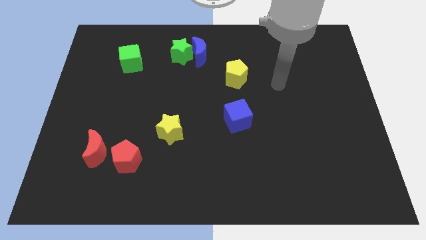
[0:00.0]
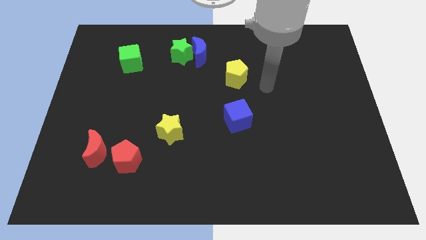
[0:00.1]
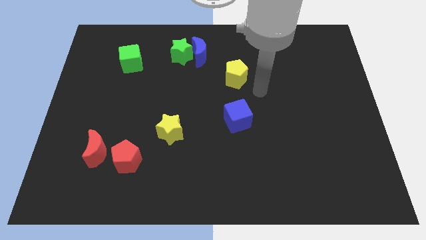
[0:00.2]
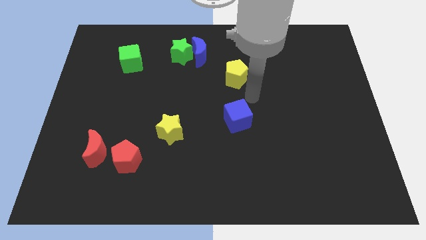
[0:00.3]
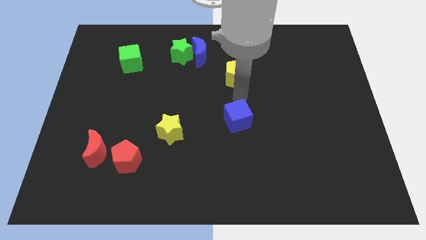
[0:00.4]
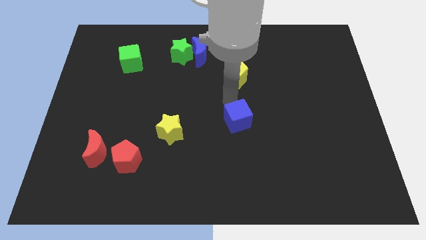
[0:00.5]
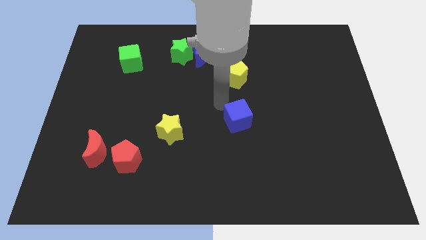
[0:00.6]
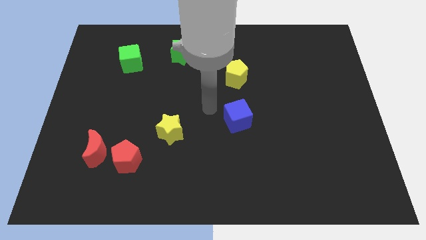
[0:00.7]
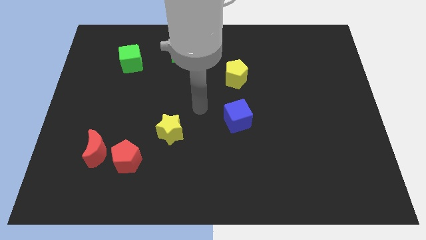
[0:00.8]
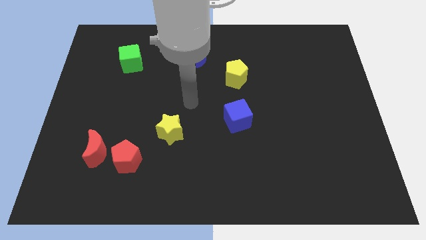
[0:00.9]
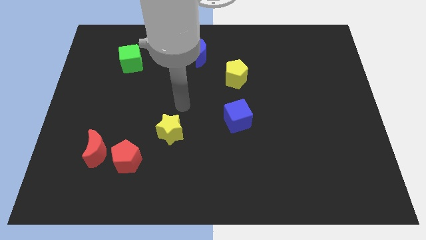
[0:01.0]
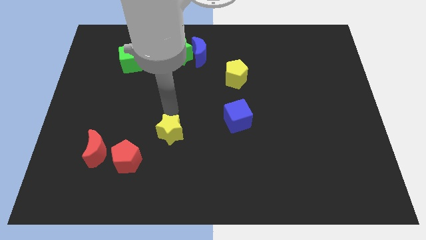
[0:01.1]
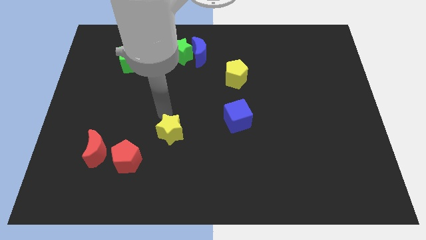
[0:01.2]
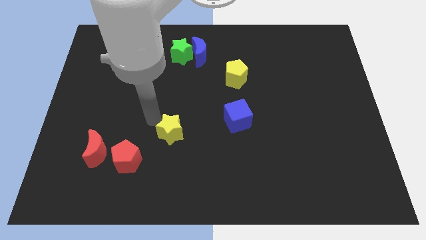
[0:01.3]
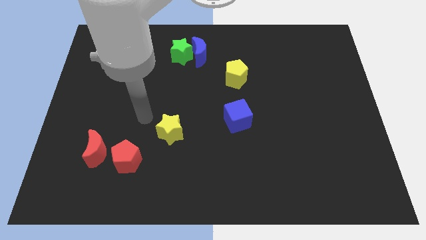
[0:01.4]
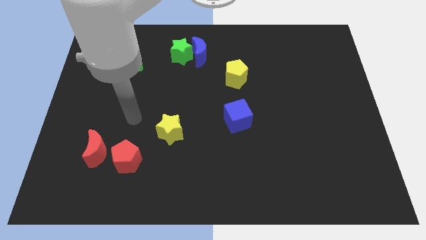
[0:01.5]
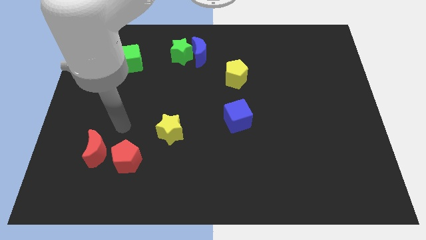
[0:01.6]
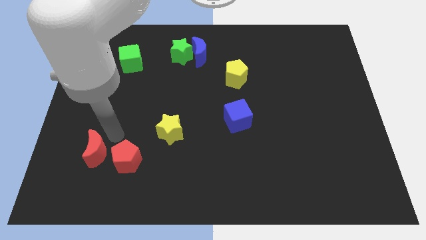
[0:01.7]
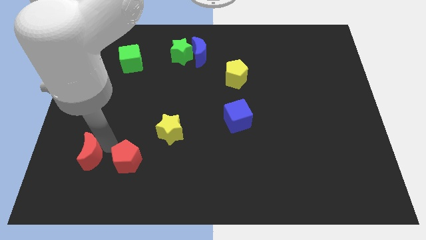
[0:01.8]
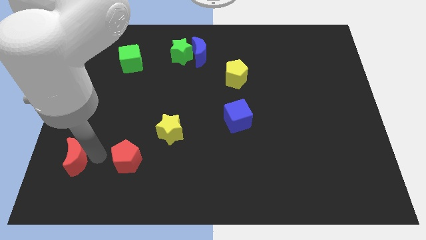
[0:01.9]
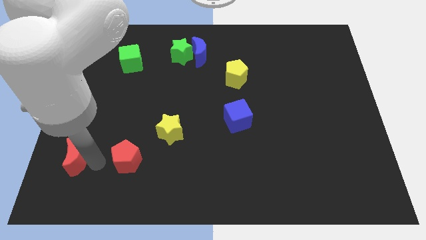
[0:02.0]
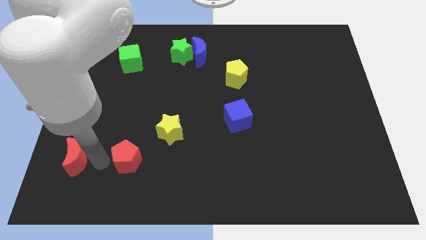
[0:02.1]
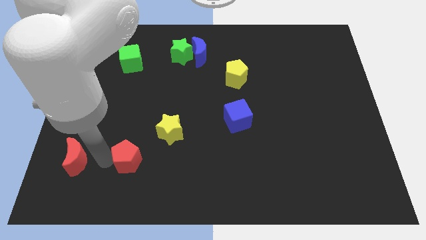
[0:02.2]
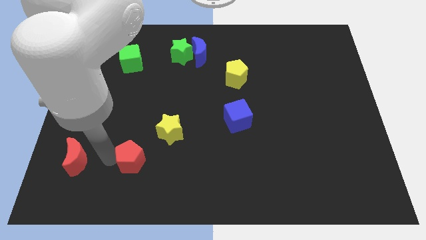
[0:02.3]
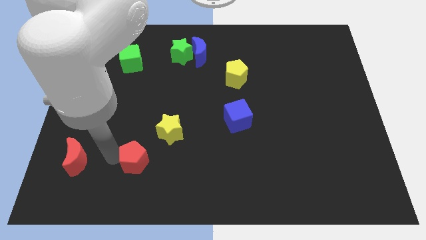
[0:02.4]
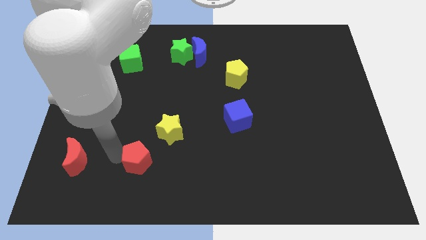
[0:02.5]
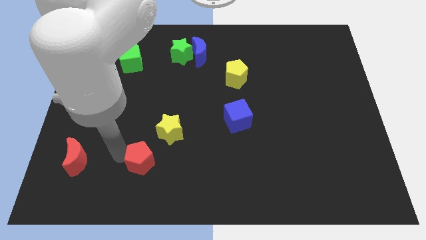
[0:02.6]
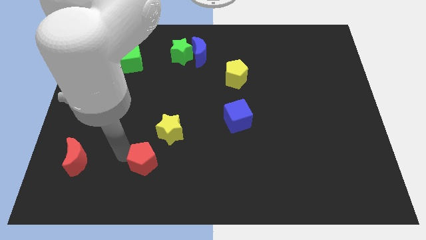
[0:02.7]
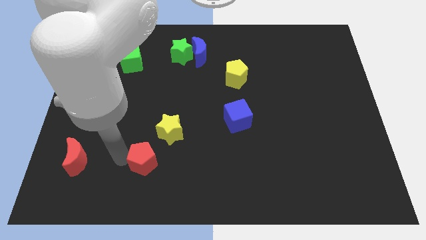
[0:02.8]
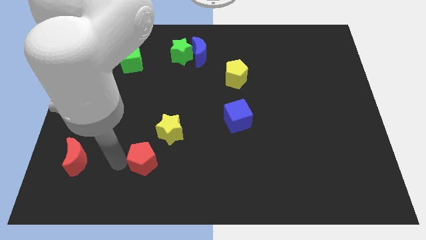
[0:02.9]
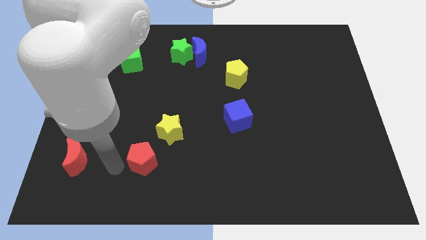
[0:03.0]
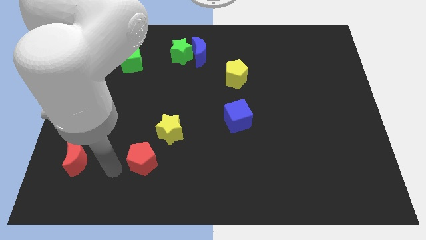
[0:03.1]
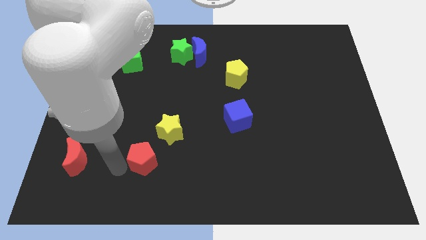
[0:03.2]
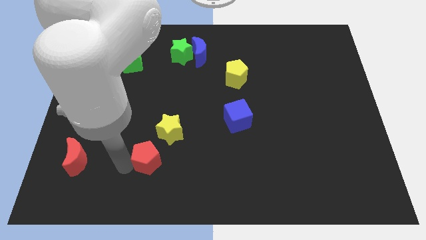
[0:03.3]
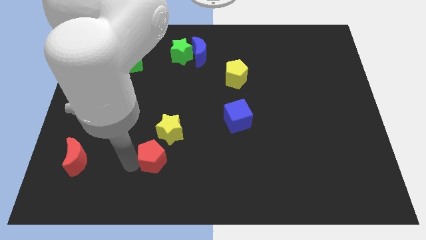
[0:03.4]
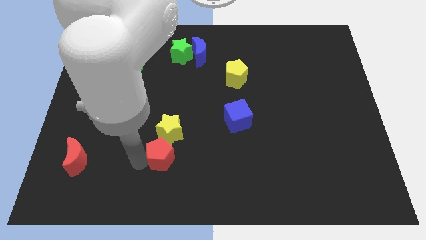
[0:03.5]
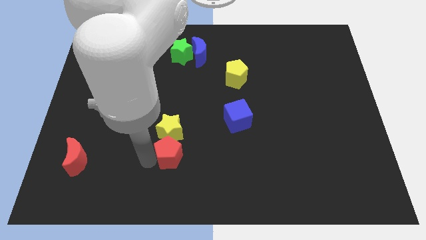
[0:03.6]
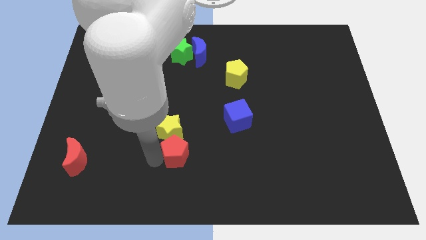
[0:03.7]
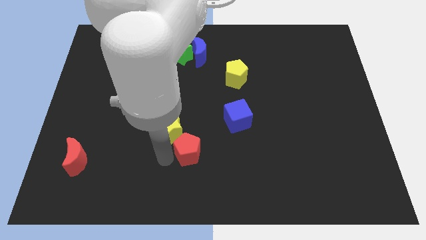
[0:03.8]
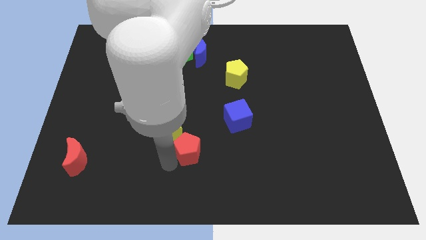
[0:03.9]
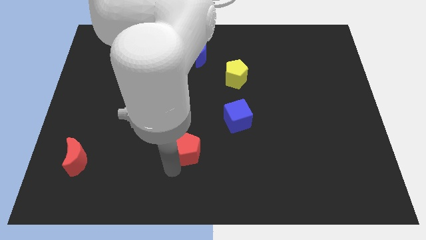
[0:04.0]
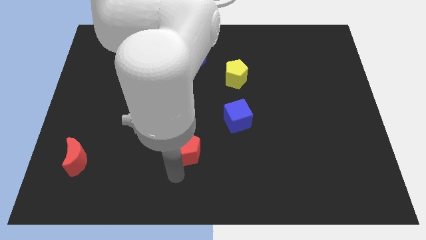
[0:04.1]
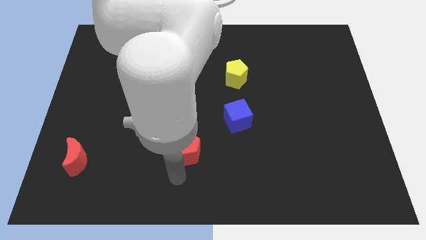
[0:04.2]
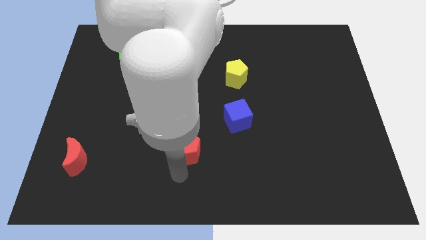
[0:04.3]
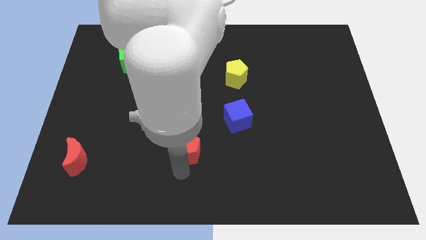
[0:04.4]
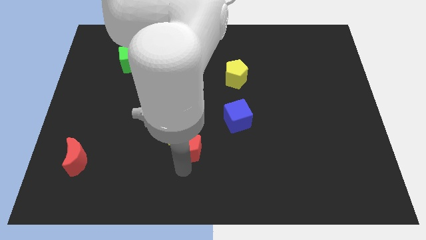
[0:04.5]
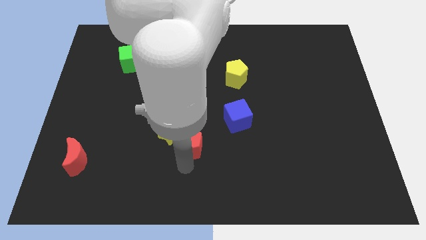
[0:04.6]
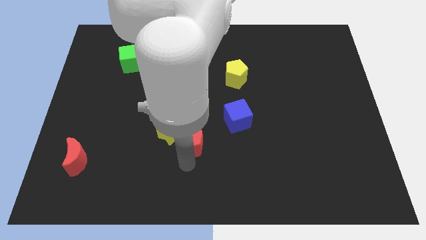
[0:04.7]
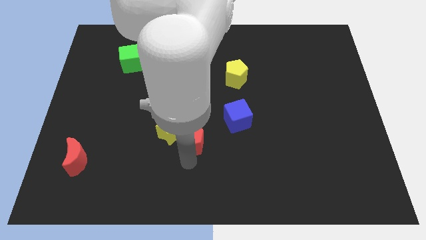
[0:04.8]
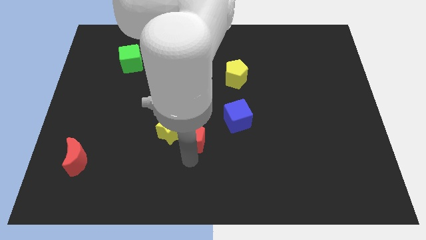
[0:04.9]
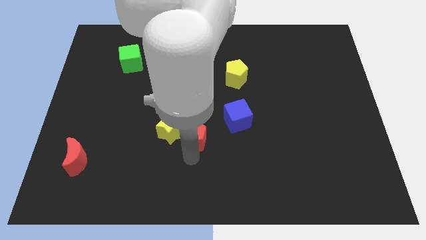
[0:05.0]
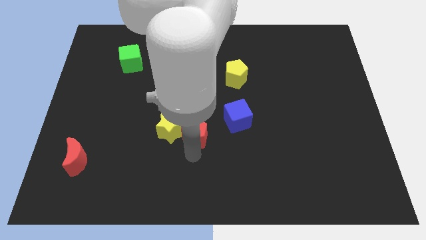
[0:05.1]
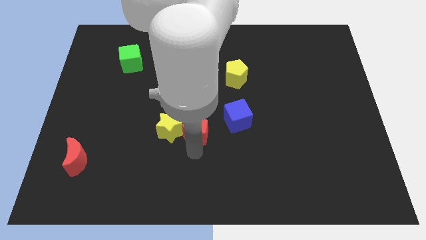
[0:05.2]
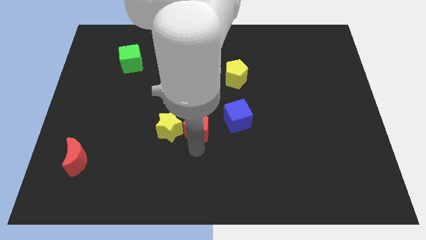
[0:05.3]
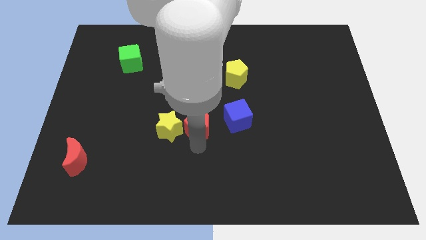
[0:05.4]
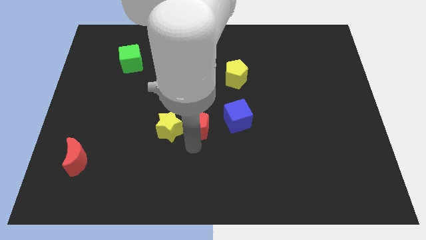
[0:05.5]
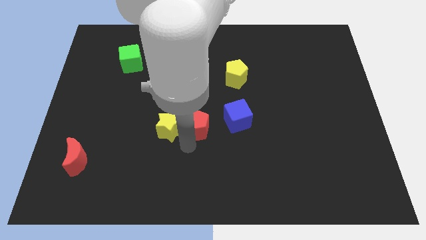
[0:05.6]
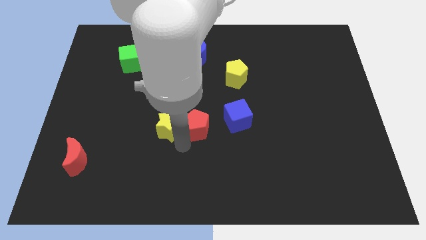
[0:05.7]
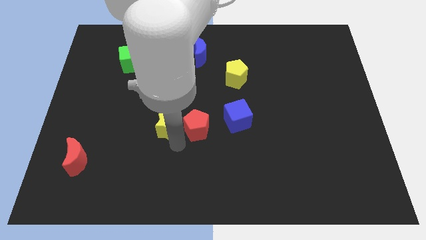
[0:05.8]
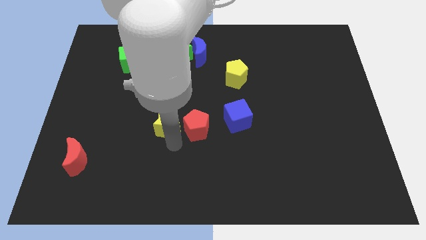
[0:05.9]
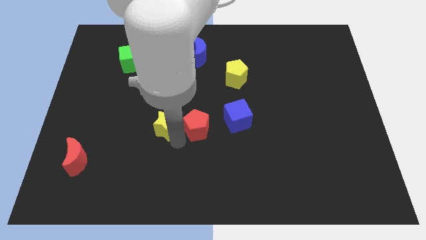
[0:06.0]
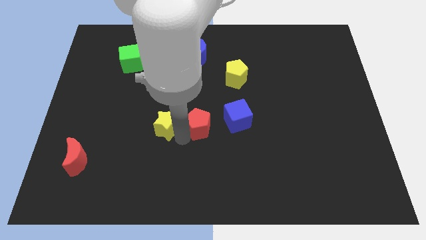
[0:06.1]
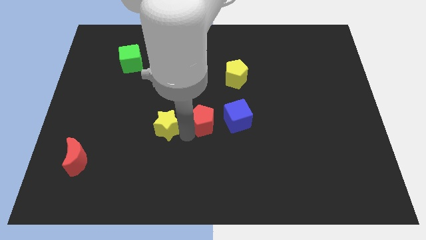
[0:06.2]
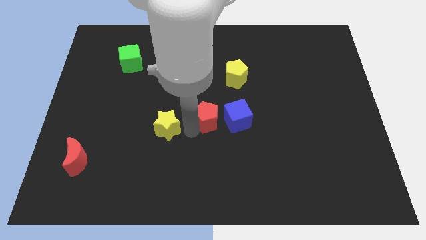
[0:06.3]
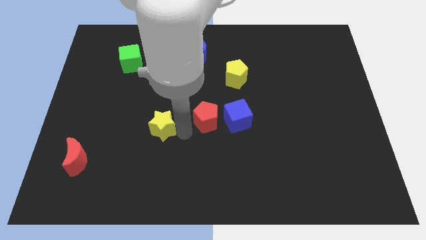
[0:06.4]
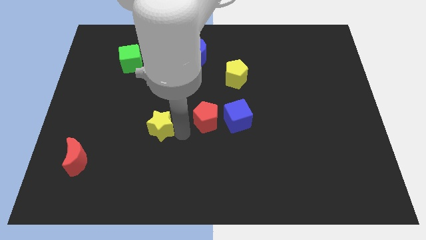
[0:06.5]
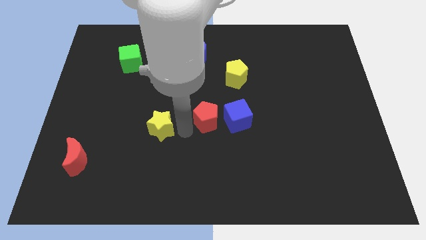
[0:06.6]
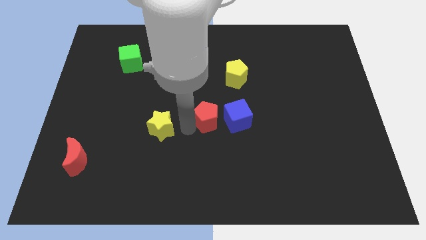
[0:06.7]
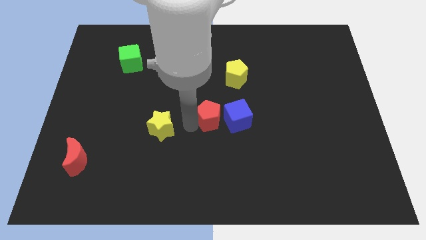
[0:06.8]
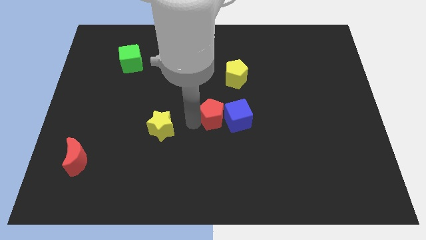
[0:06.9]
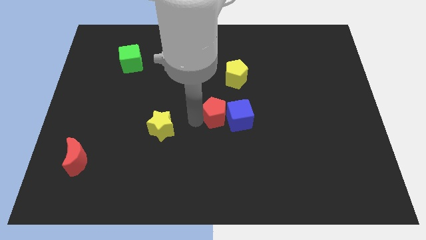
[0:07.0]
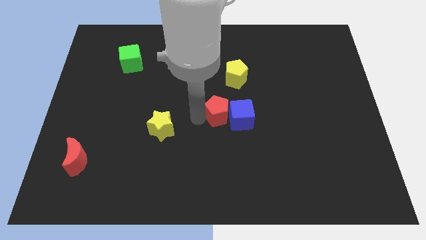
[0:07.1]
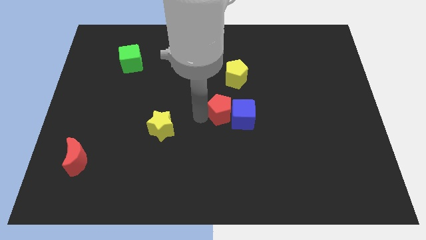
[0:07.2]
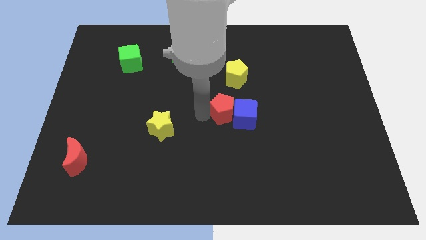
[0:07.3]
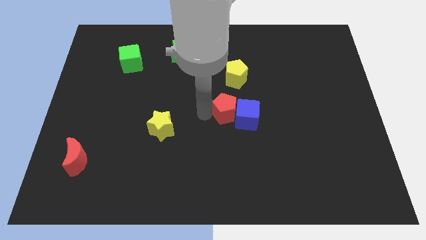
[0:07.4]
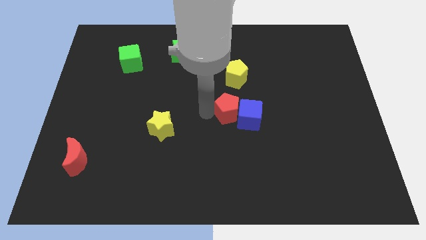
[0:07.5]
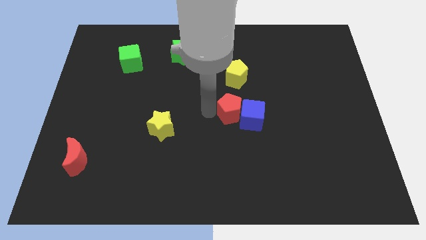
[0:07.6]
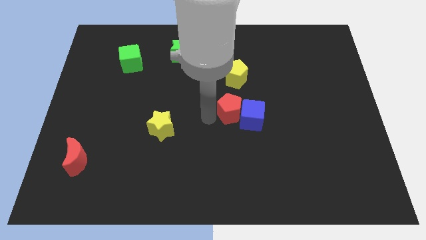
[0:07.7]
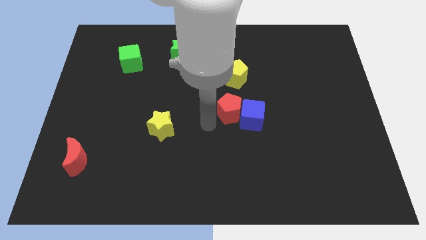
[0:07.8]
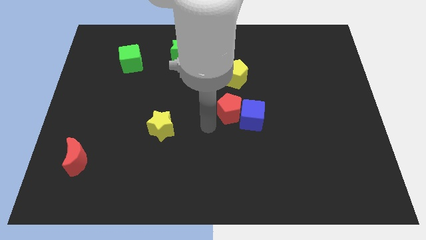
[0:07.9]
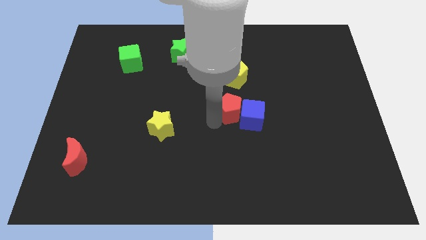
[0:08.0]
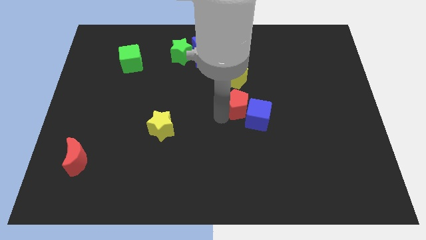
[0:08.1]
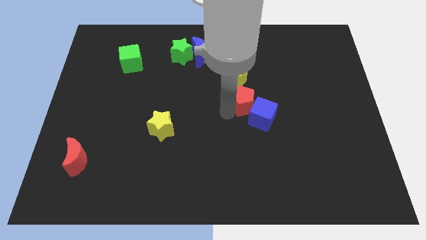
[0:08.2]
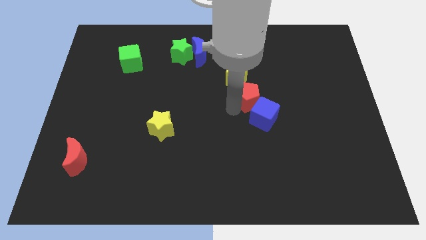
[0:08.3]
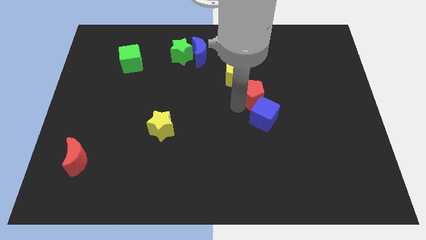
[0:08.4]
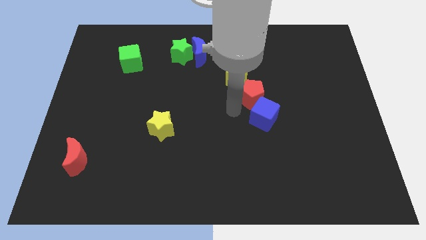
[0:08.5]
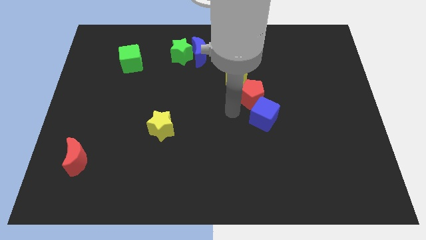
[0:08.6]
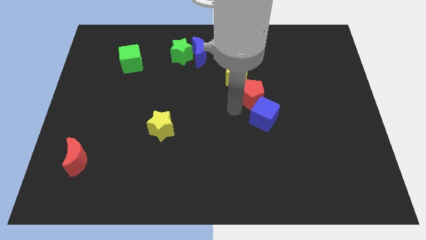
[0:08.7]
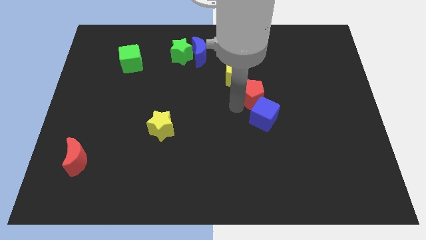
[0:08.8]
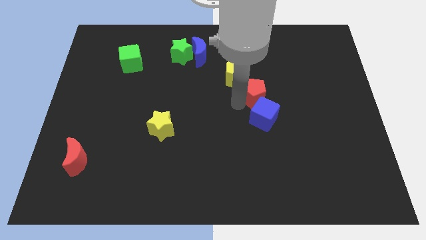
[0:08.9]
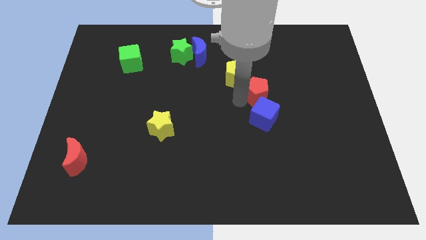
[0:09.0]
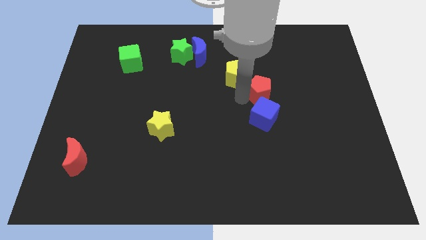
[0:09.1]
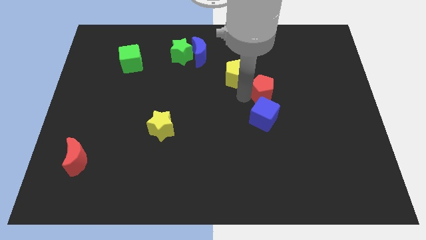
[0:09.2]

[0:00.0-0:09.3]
put the red pentagon to the right of the yellow pentagon
